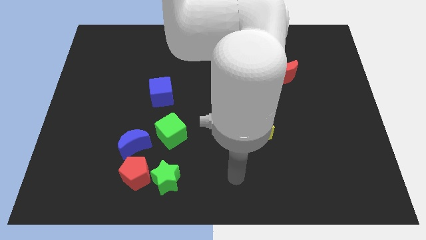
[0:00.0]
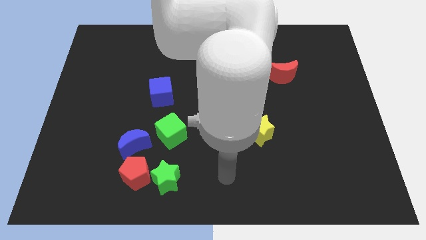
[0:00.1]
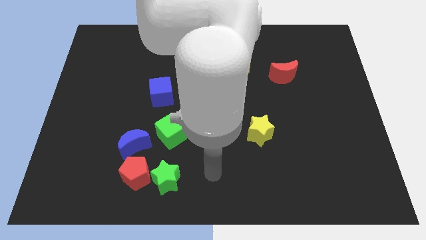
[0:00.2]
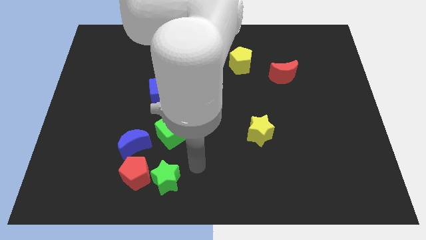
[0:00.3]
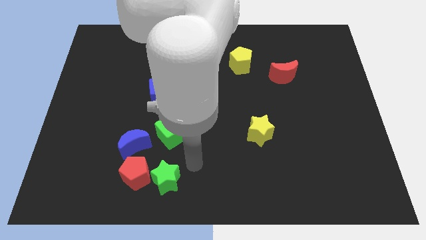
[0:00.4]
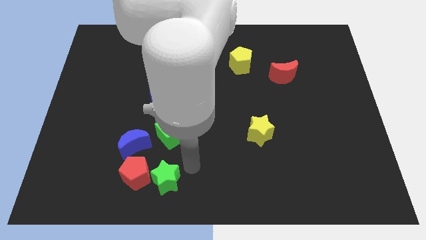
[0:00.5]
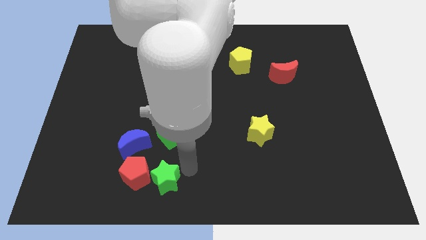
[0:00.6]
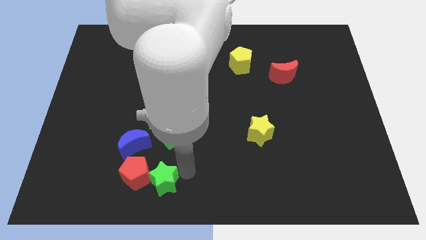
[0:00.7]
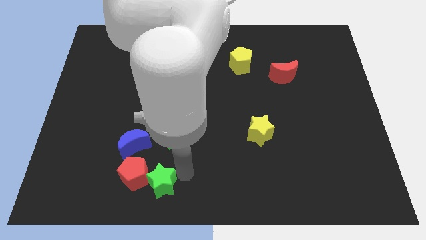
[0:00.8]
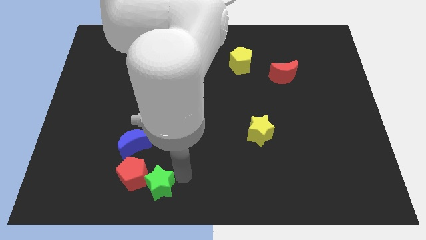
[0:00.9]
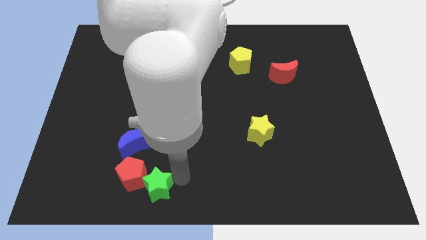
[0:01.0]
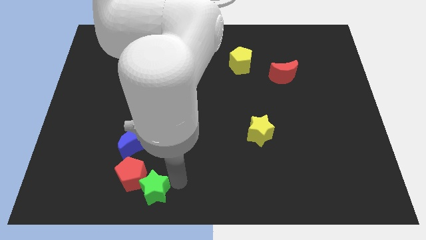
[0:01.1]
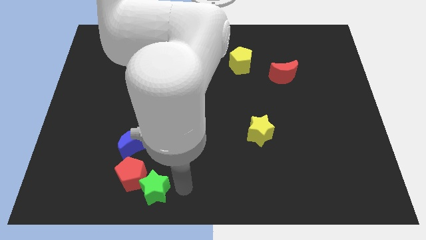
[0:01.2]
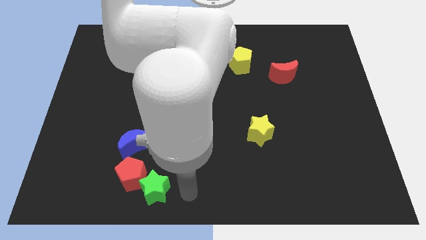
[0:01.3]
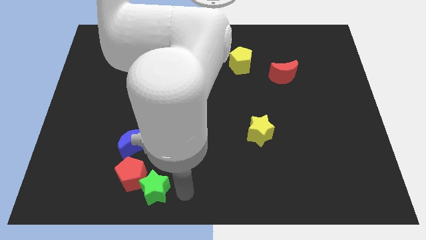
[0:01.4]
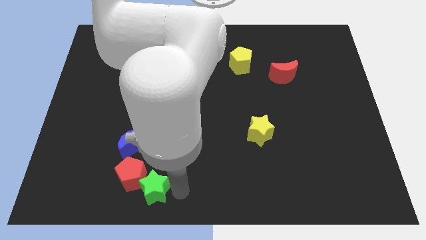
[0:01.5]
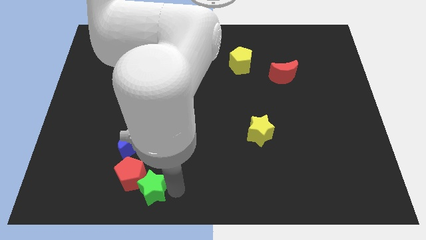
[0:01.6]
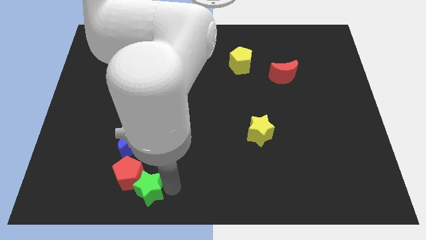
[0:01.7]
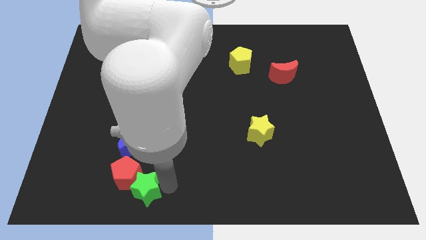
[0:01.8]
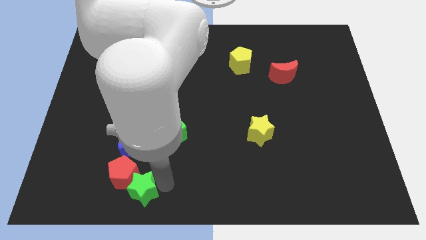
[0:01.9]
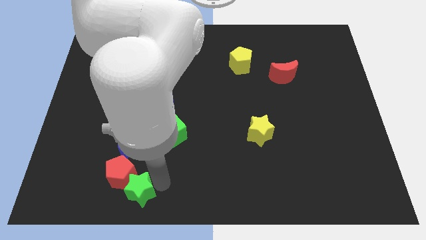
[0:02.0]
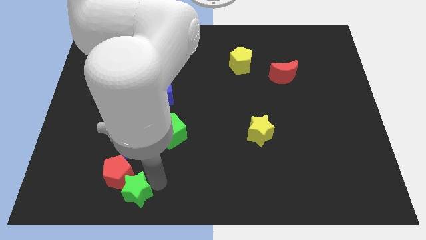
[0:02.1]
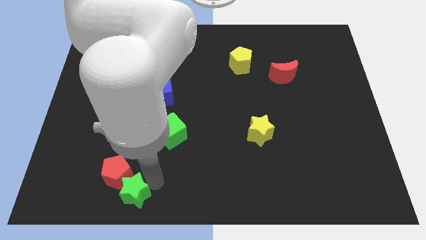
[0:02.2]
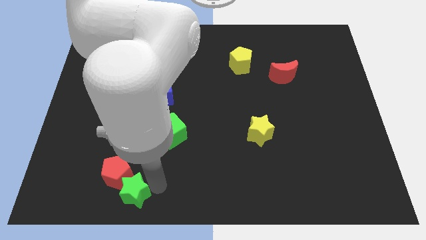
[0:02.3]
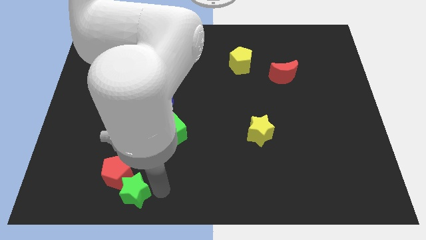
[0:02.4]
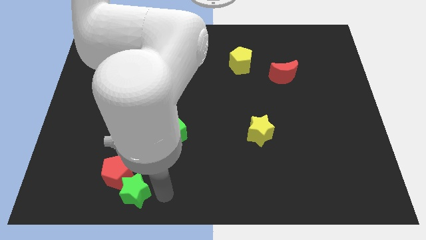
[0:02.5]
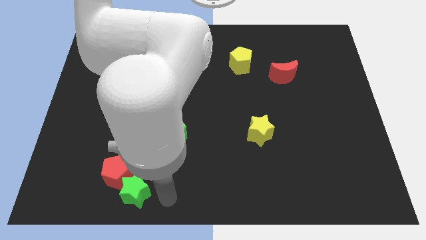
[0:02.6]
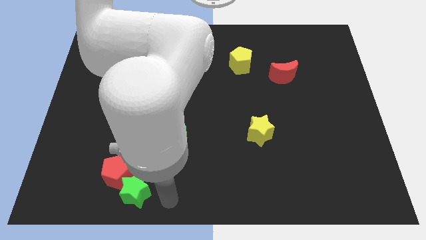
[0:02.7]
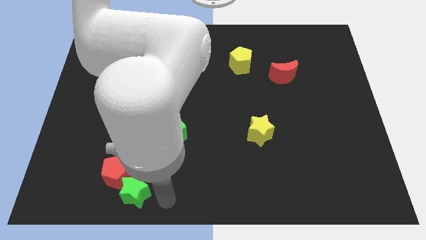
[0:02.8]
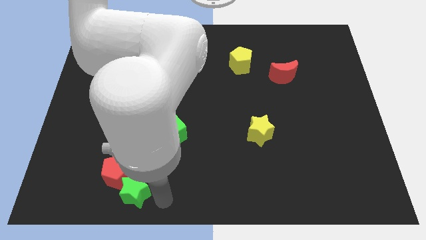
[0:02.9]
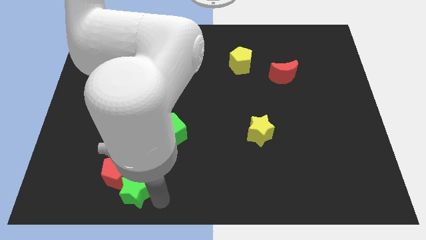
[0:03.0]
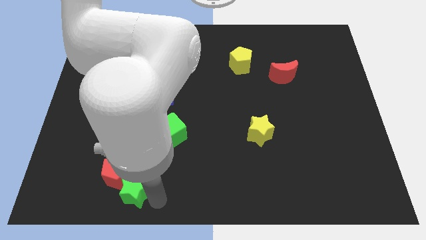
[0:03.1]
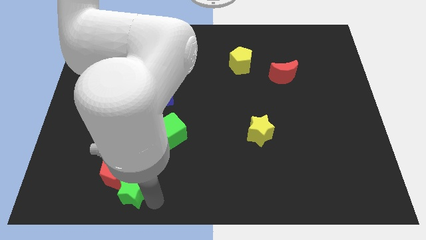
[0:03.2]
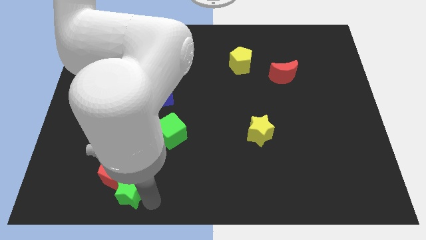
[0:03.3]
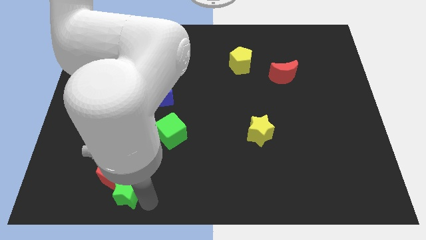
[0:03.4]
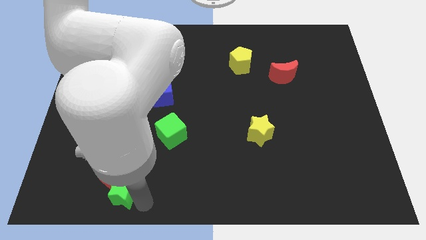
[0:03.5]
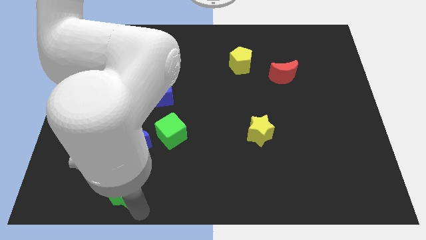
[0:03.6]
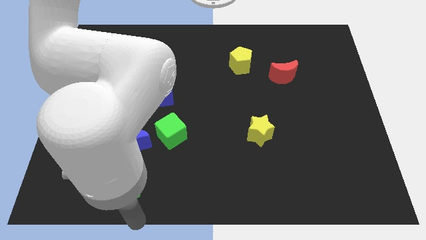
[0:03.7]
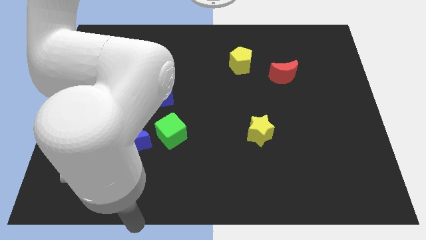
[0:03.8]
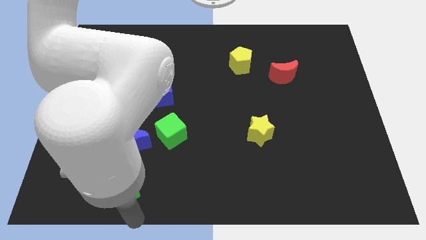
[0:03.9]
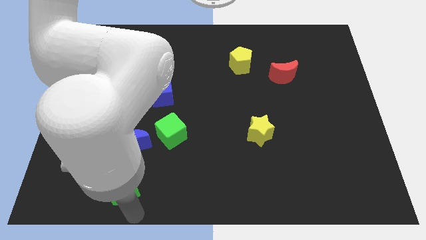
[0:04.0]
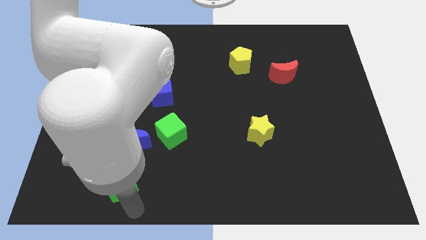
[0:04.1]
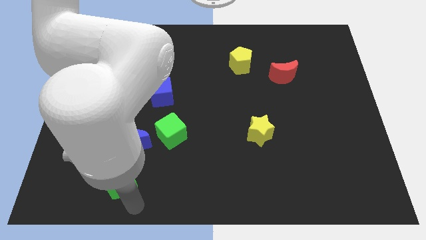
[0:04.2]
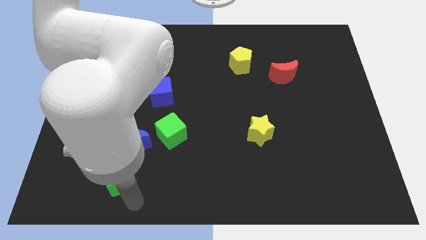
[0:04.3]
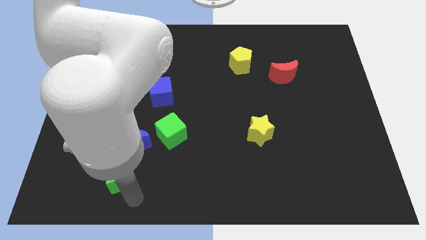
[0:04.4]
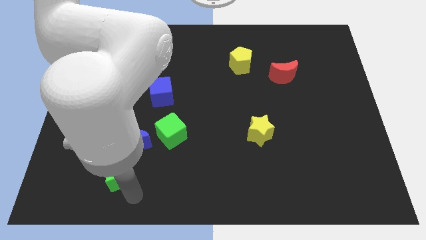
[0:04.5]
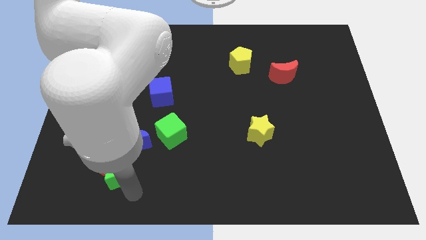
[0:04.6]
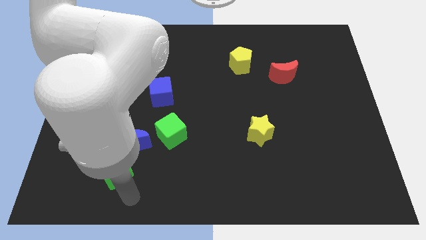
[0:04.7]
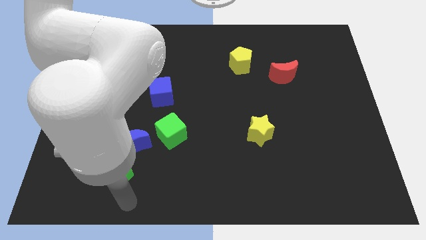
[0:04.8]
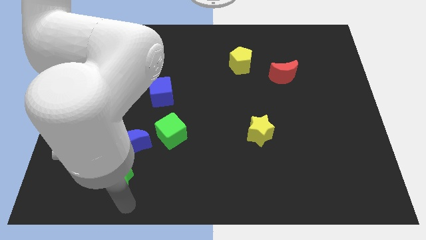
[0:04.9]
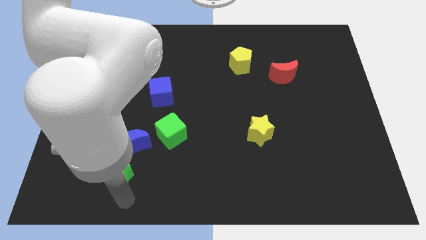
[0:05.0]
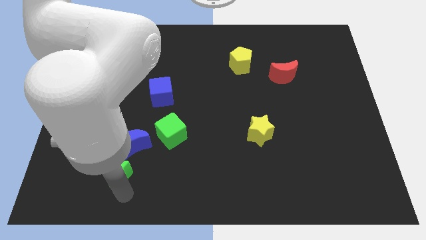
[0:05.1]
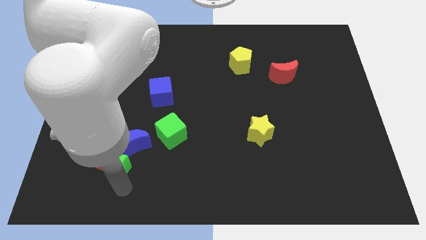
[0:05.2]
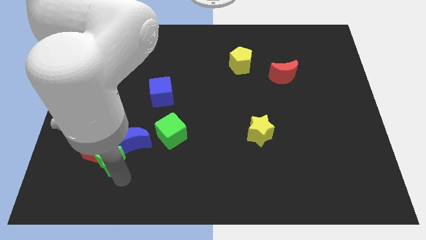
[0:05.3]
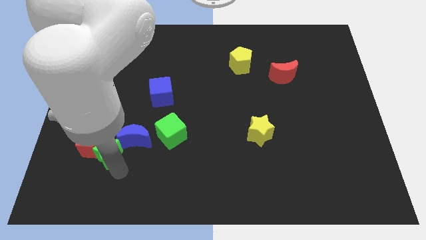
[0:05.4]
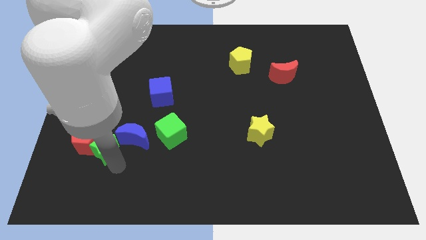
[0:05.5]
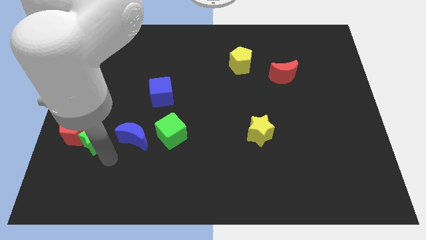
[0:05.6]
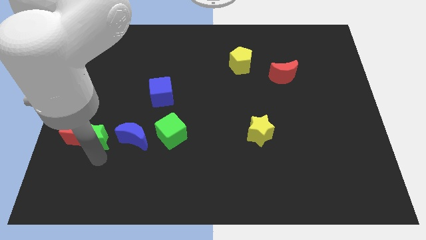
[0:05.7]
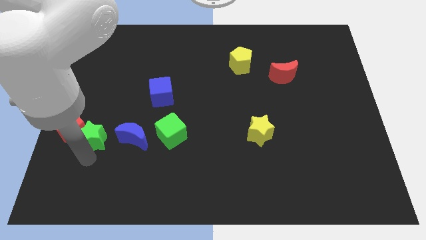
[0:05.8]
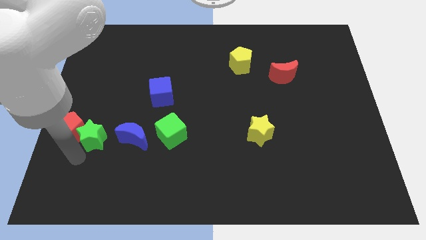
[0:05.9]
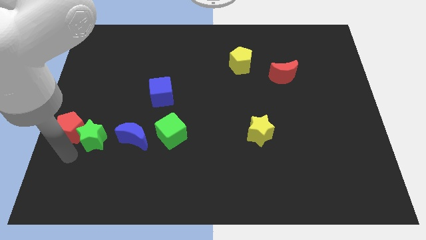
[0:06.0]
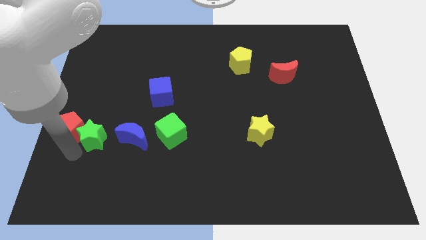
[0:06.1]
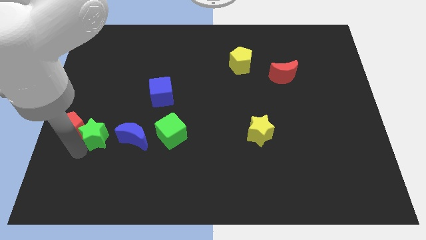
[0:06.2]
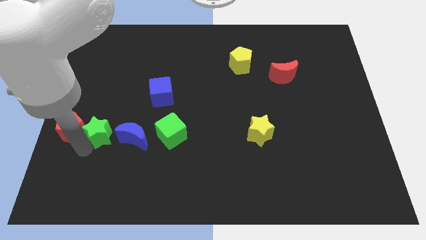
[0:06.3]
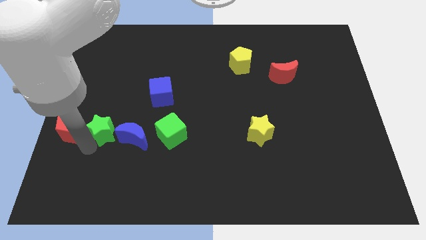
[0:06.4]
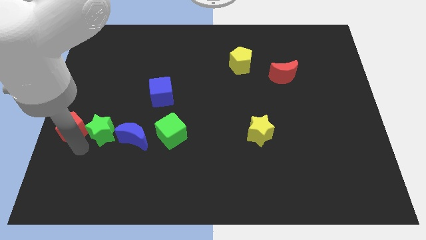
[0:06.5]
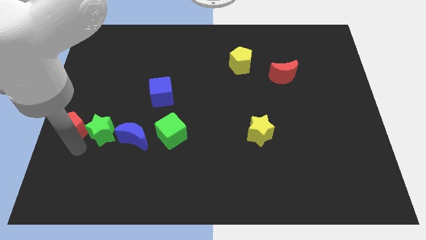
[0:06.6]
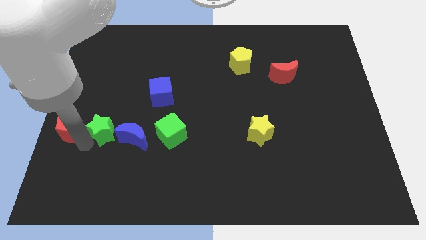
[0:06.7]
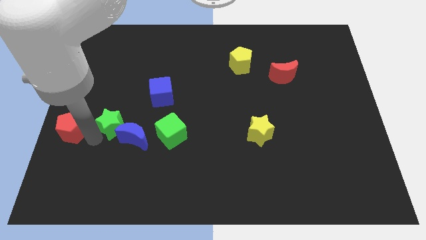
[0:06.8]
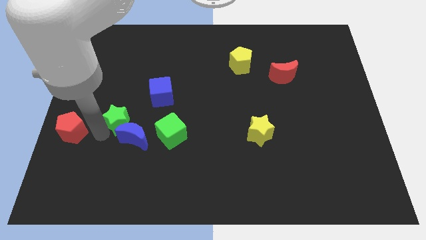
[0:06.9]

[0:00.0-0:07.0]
move the green star to the bottom left side of the blue cube
